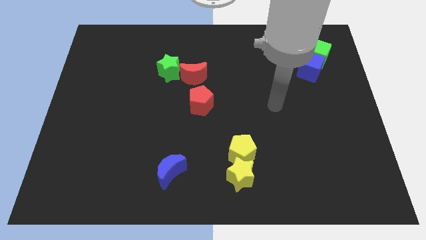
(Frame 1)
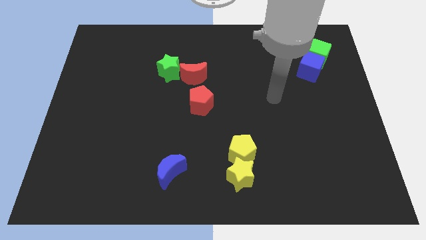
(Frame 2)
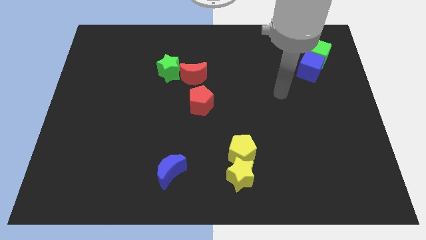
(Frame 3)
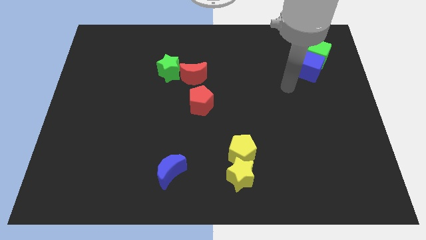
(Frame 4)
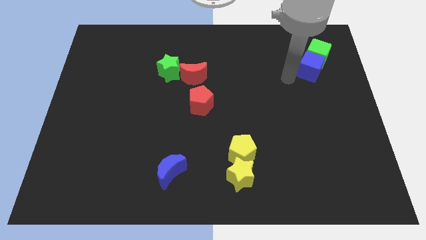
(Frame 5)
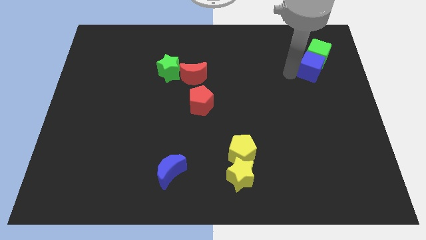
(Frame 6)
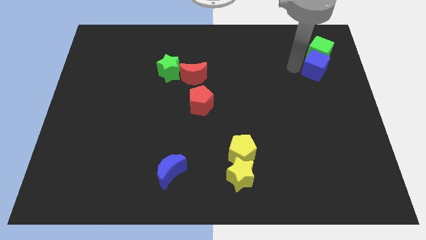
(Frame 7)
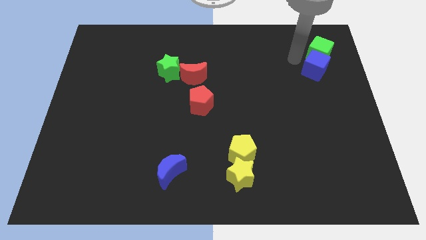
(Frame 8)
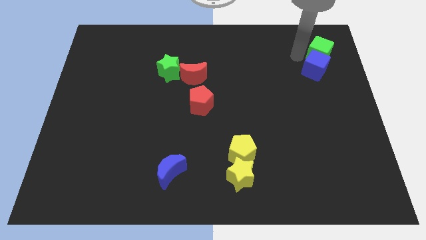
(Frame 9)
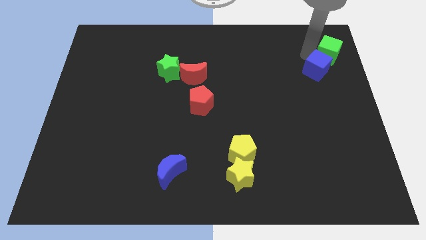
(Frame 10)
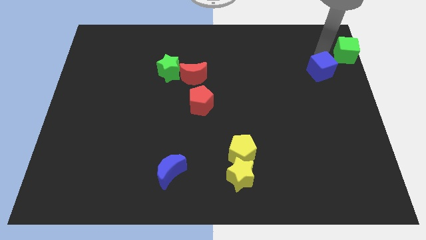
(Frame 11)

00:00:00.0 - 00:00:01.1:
separate the blue cube from the green cube

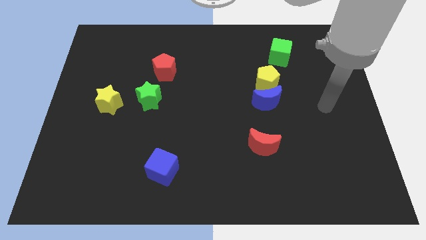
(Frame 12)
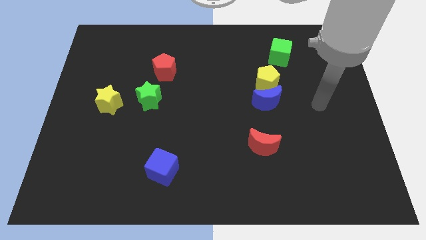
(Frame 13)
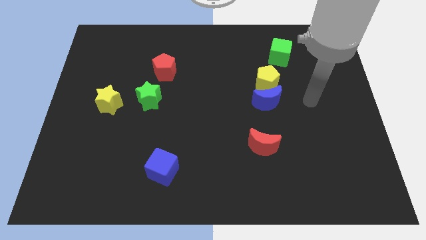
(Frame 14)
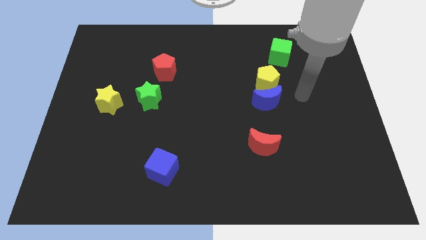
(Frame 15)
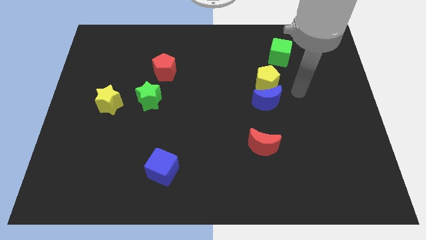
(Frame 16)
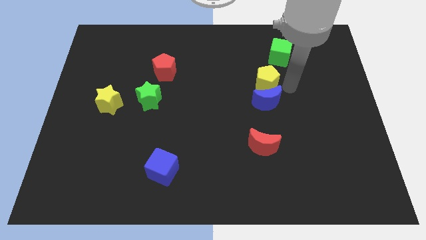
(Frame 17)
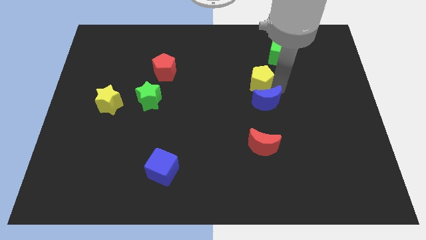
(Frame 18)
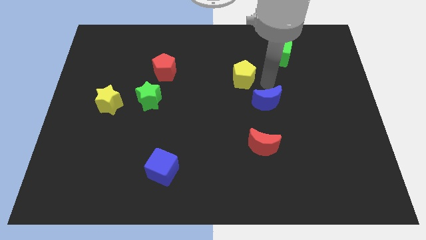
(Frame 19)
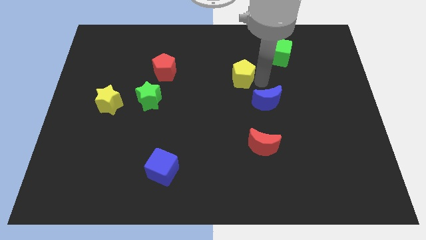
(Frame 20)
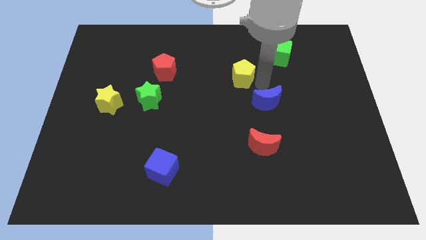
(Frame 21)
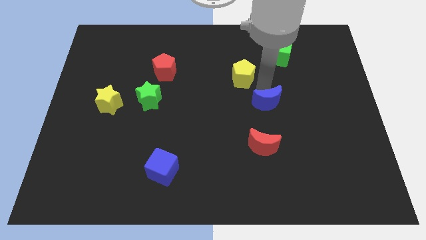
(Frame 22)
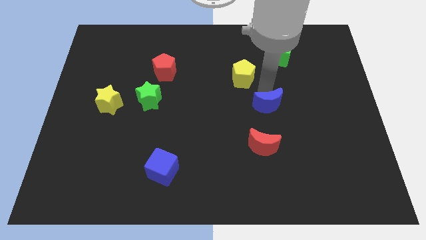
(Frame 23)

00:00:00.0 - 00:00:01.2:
move the blue moon away from the yellow pentagon

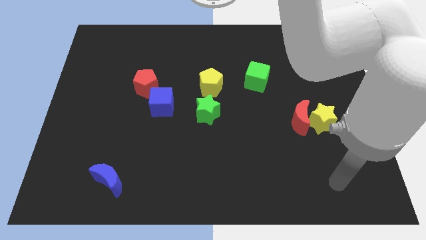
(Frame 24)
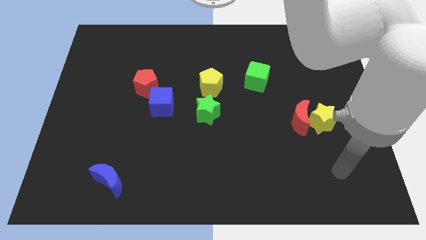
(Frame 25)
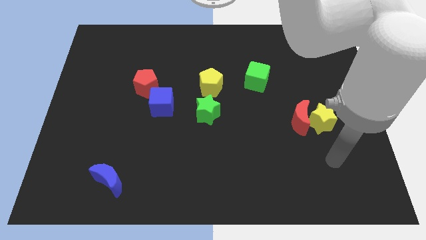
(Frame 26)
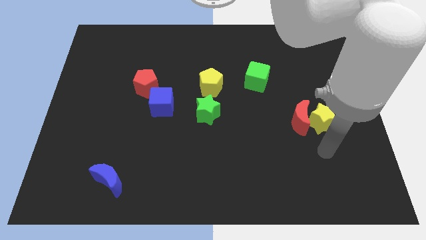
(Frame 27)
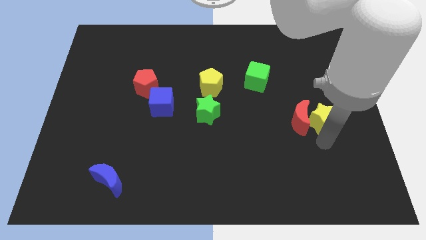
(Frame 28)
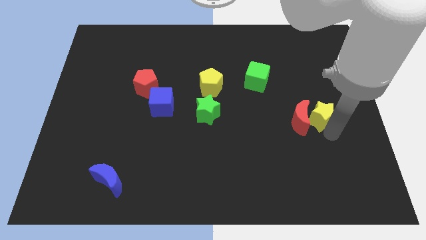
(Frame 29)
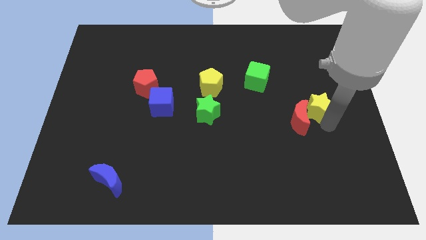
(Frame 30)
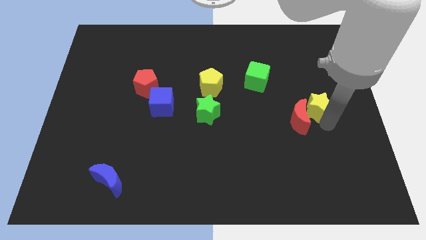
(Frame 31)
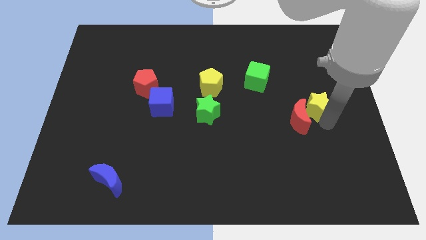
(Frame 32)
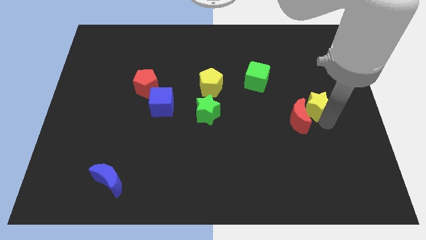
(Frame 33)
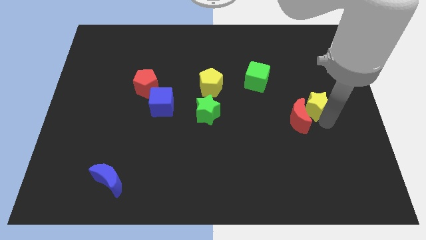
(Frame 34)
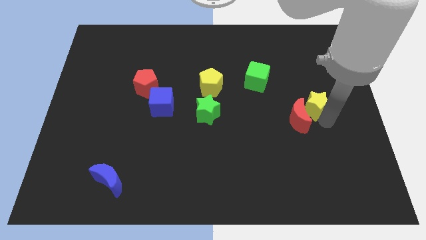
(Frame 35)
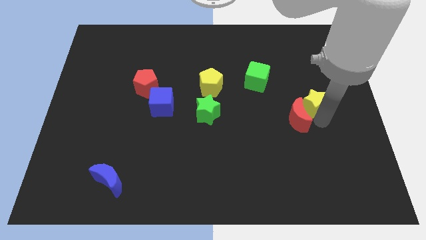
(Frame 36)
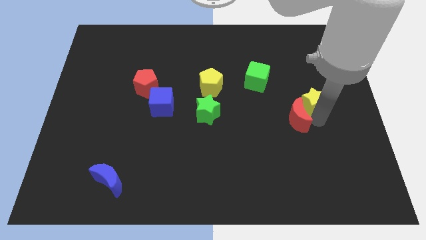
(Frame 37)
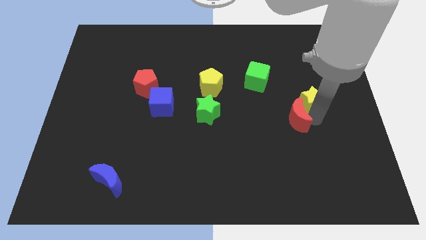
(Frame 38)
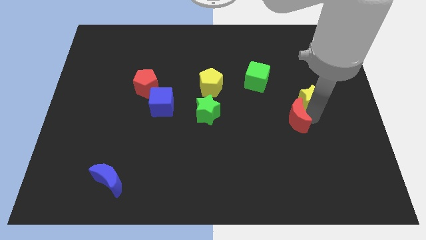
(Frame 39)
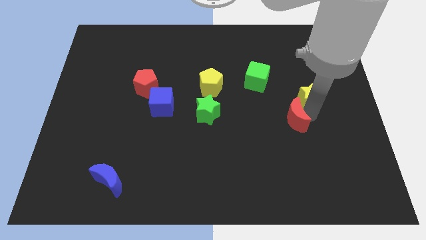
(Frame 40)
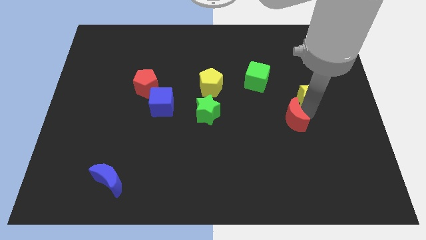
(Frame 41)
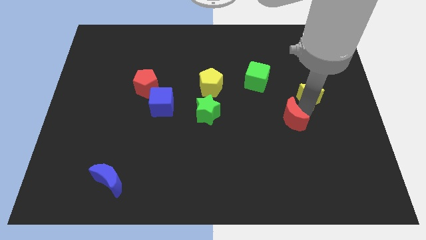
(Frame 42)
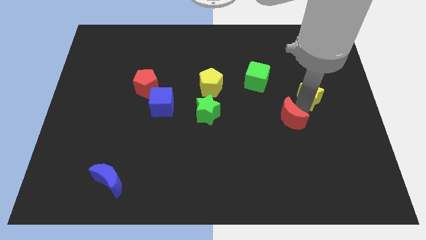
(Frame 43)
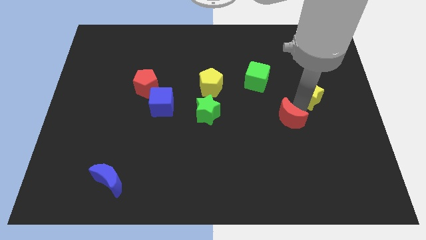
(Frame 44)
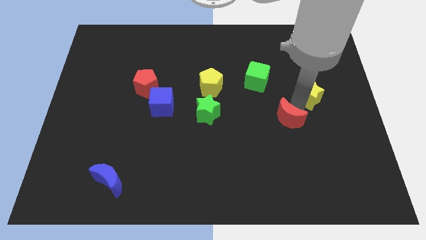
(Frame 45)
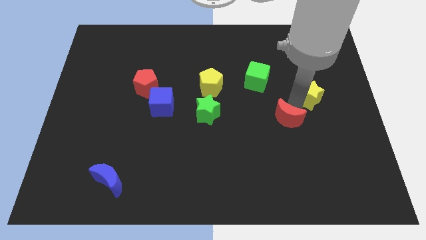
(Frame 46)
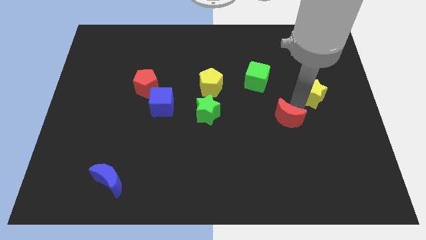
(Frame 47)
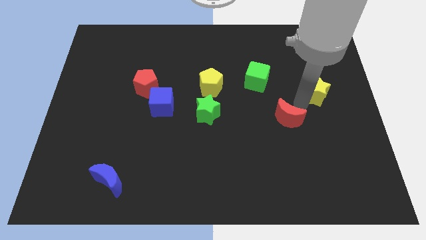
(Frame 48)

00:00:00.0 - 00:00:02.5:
pull the red moon apart from the yellow star

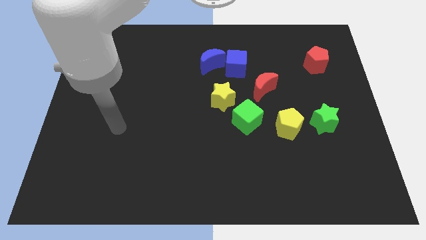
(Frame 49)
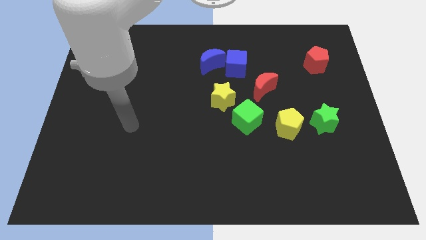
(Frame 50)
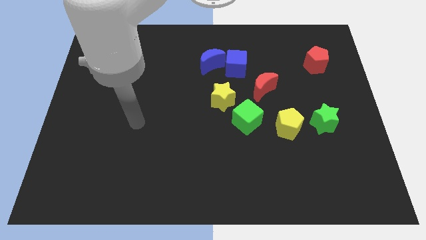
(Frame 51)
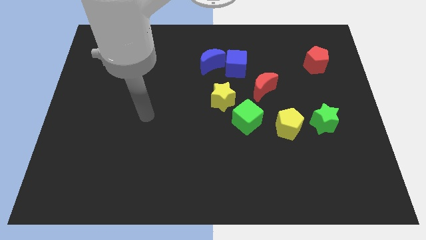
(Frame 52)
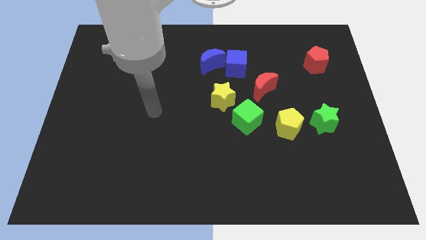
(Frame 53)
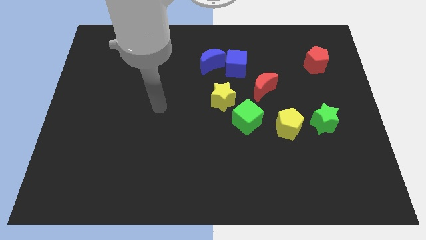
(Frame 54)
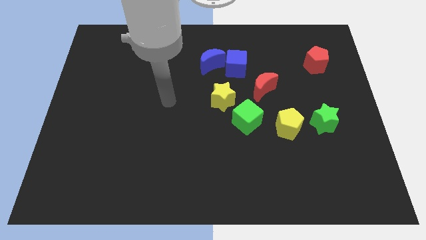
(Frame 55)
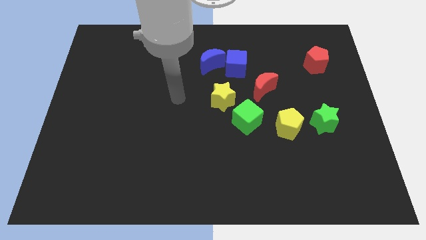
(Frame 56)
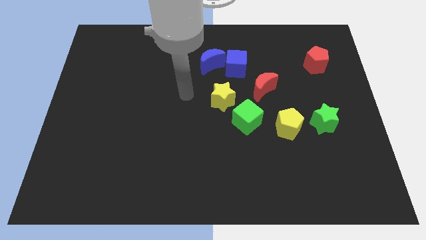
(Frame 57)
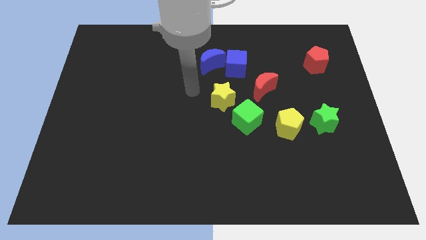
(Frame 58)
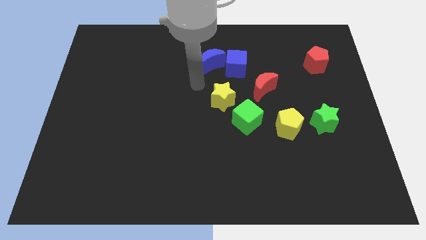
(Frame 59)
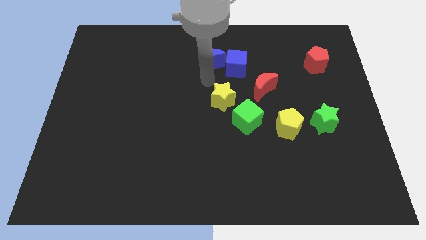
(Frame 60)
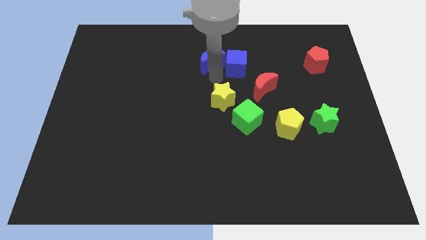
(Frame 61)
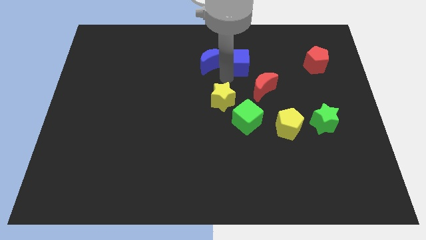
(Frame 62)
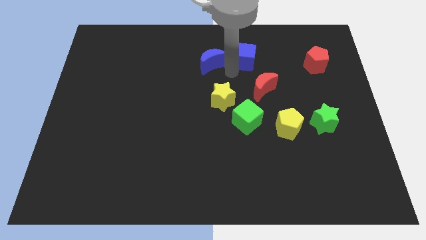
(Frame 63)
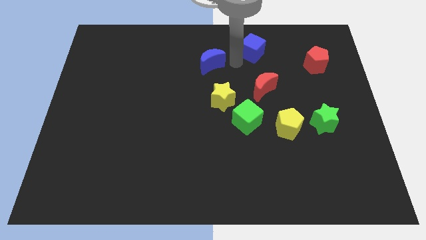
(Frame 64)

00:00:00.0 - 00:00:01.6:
pull the blue moon apart from the blue cube

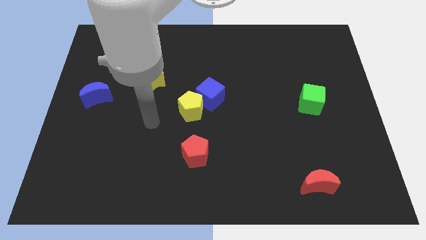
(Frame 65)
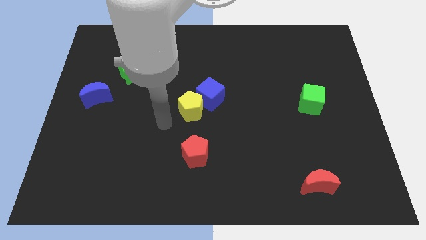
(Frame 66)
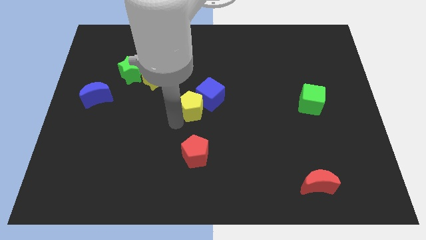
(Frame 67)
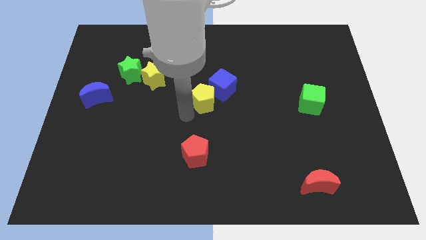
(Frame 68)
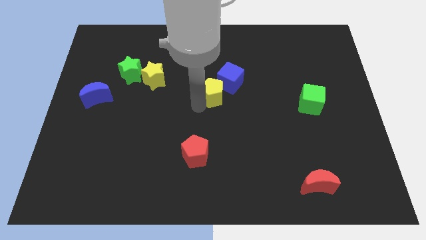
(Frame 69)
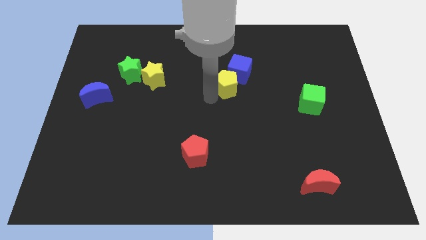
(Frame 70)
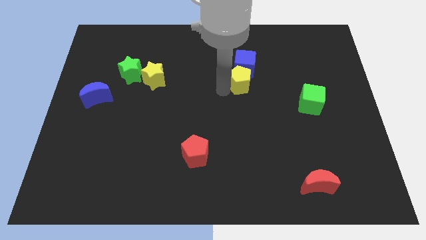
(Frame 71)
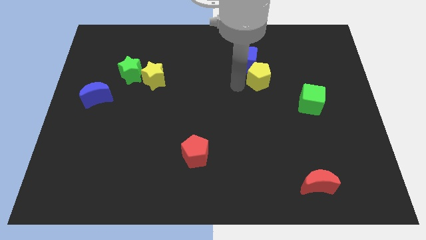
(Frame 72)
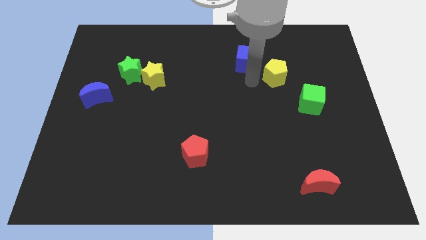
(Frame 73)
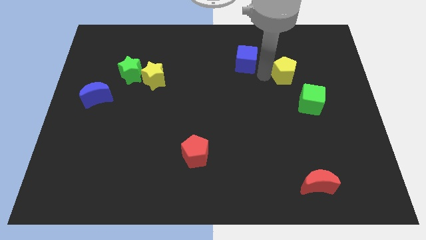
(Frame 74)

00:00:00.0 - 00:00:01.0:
separate the blue cube from the yellow pentagon

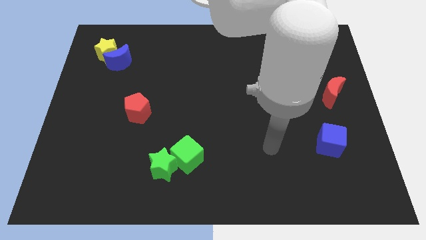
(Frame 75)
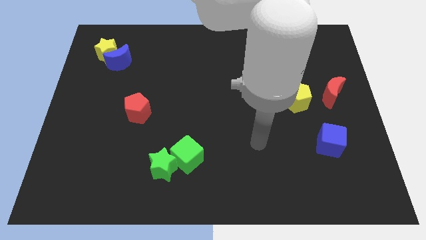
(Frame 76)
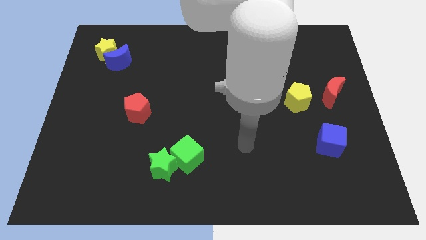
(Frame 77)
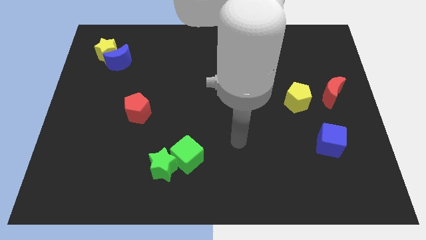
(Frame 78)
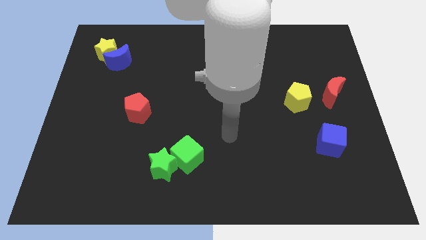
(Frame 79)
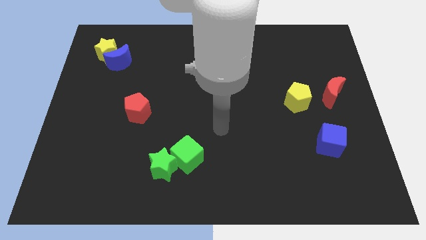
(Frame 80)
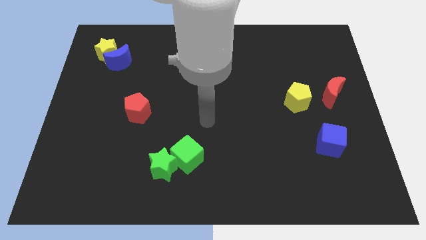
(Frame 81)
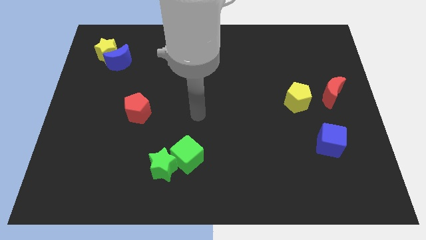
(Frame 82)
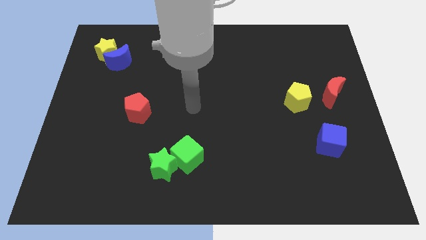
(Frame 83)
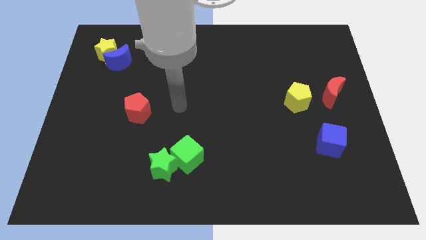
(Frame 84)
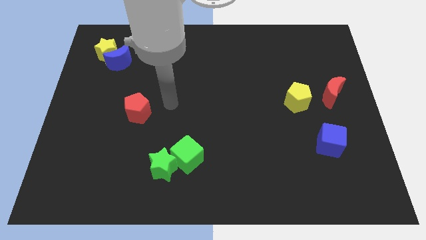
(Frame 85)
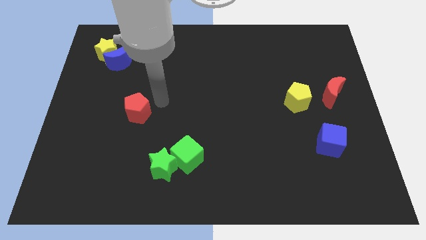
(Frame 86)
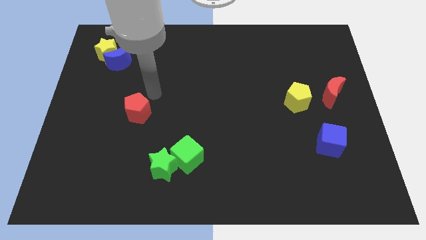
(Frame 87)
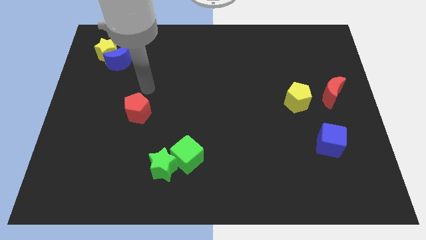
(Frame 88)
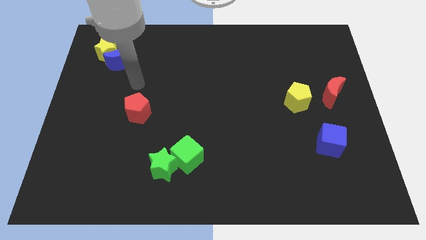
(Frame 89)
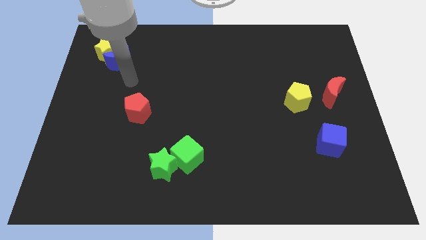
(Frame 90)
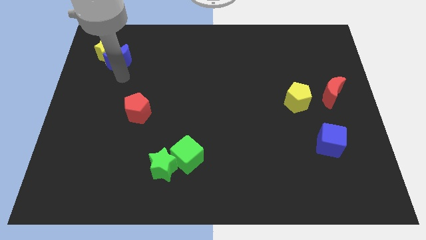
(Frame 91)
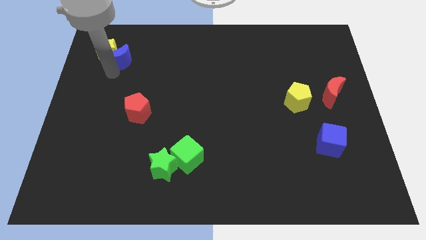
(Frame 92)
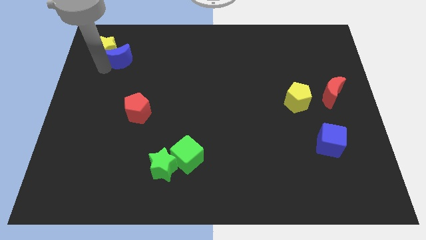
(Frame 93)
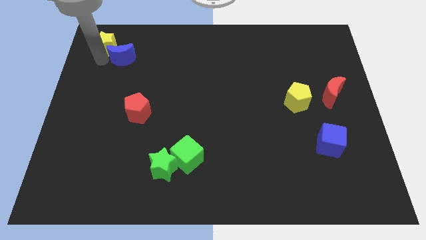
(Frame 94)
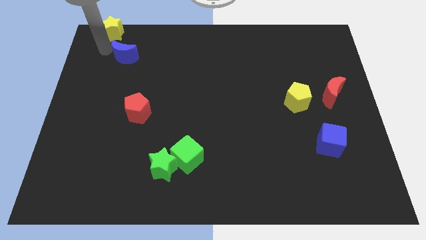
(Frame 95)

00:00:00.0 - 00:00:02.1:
separate the blue moon from the yellow star
